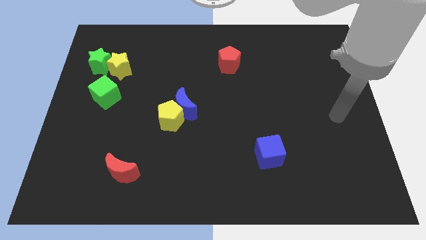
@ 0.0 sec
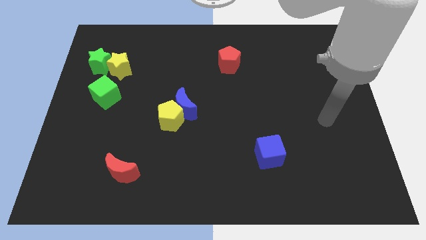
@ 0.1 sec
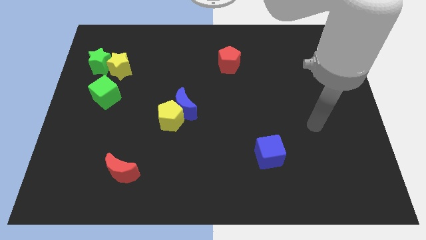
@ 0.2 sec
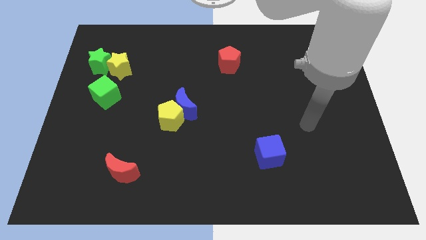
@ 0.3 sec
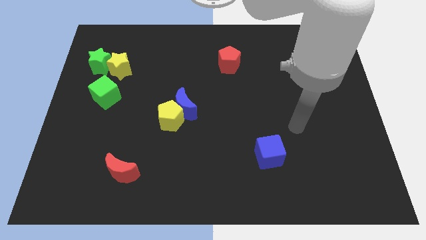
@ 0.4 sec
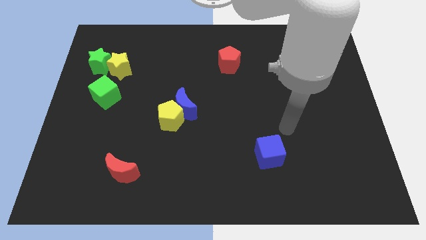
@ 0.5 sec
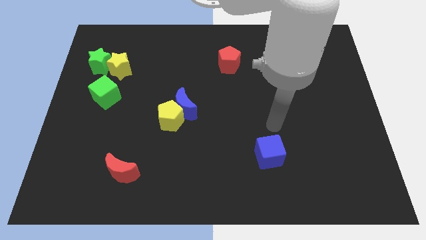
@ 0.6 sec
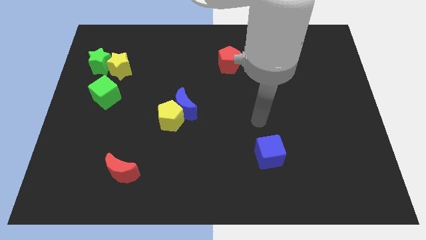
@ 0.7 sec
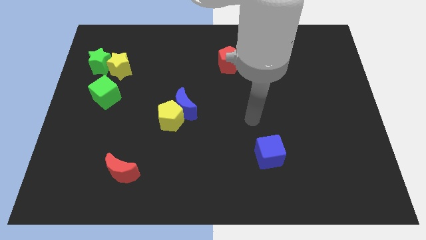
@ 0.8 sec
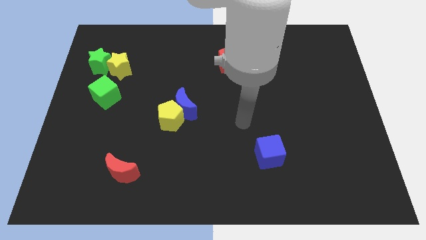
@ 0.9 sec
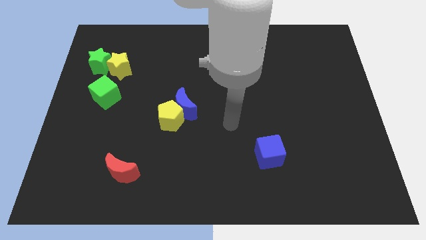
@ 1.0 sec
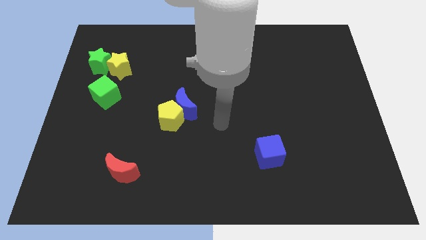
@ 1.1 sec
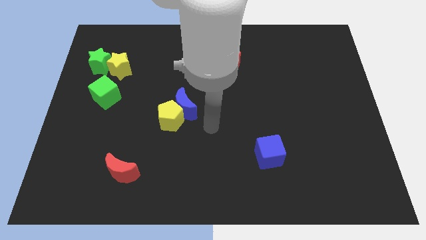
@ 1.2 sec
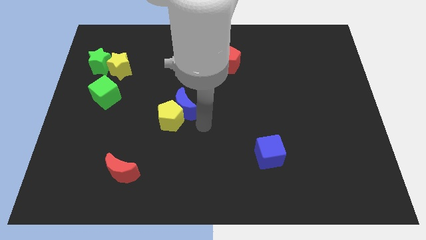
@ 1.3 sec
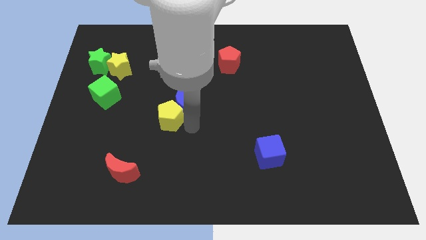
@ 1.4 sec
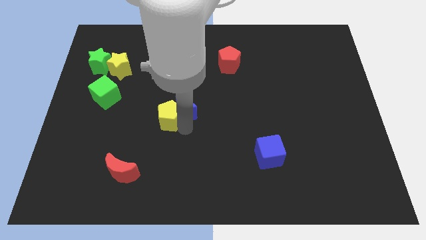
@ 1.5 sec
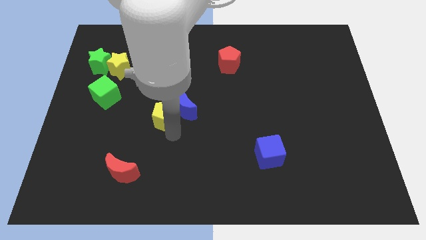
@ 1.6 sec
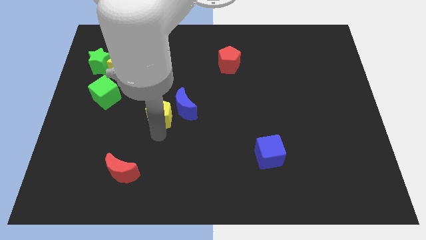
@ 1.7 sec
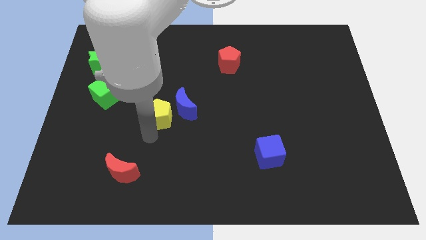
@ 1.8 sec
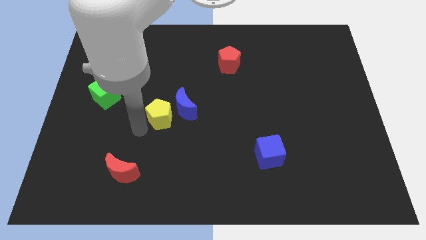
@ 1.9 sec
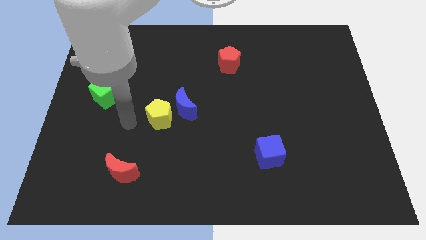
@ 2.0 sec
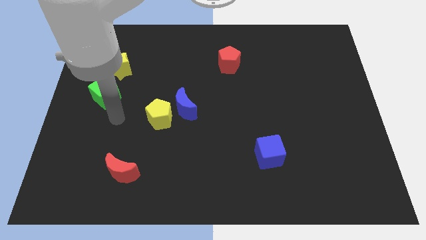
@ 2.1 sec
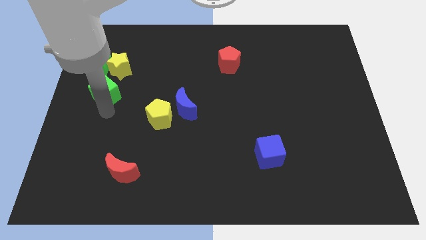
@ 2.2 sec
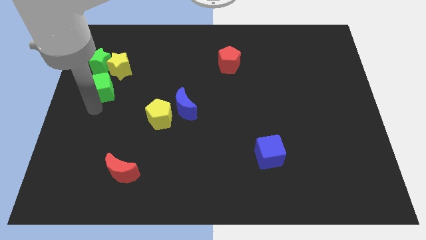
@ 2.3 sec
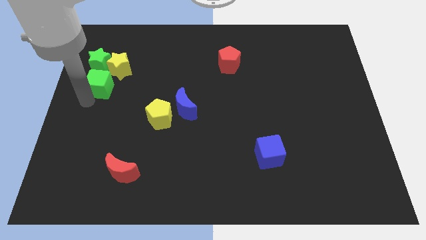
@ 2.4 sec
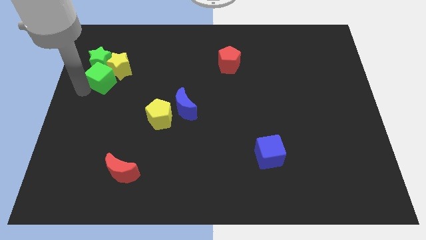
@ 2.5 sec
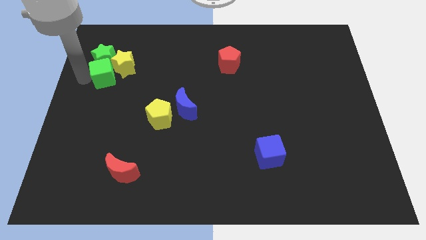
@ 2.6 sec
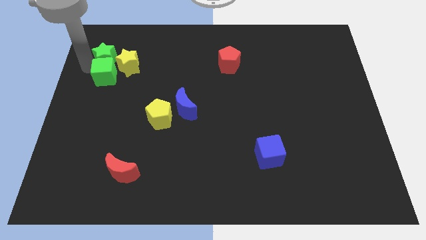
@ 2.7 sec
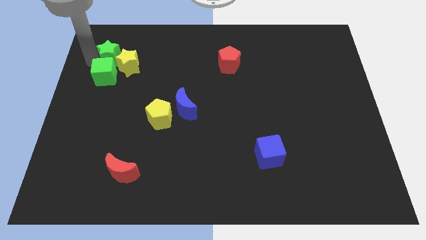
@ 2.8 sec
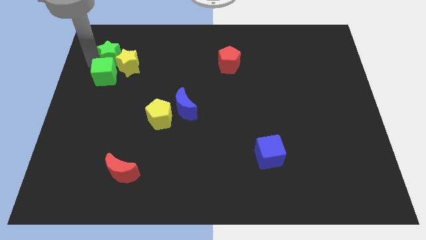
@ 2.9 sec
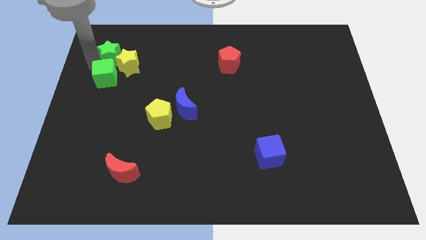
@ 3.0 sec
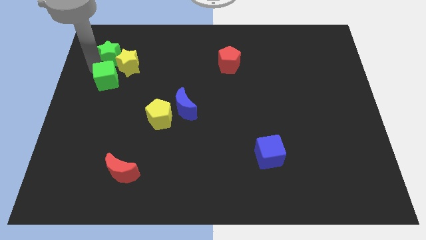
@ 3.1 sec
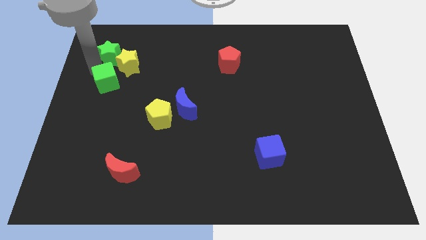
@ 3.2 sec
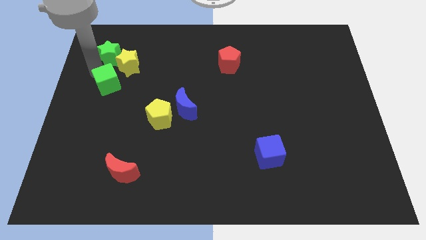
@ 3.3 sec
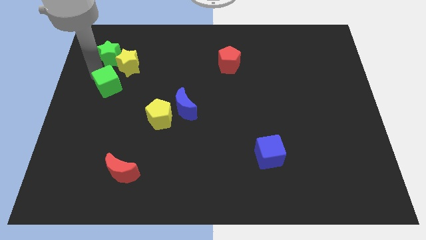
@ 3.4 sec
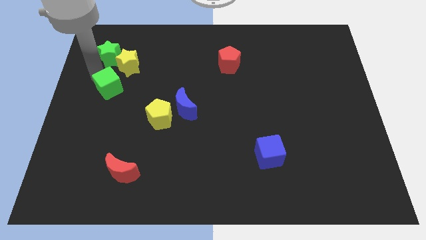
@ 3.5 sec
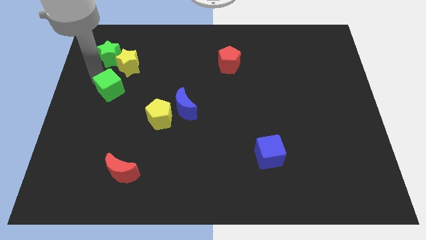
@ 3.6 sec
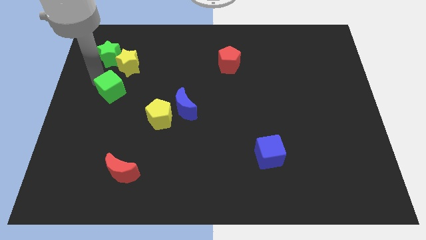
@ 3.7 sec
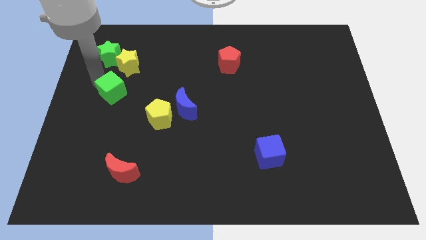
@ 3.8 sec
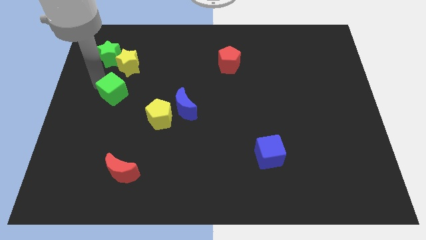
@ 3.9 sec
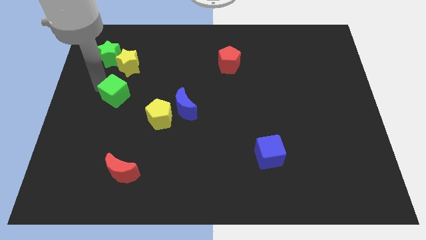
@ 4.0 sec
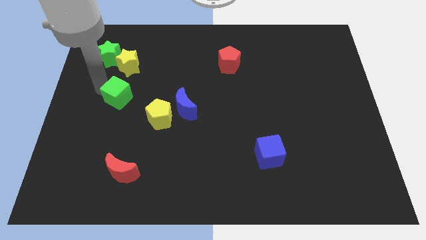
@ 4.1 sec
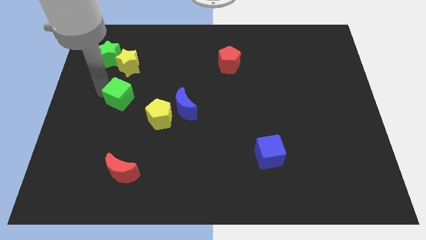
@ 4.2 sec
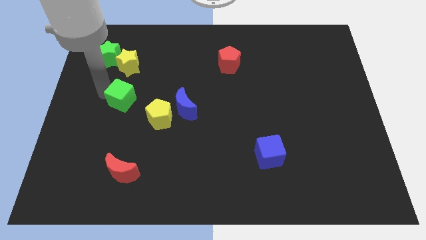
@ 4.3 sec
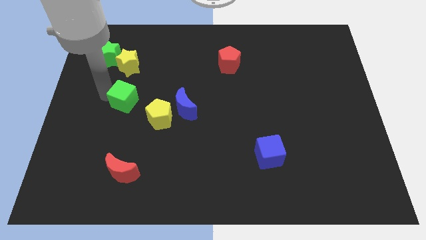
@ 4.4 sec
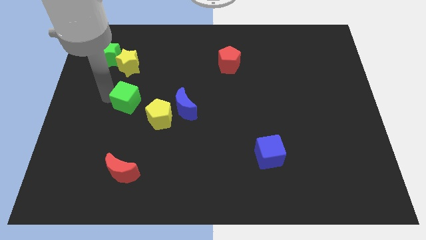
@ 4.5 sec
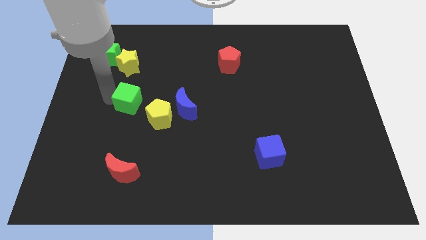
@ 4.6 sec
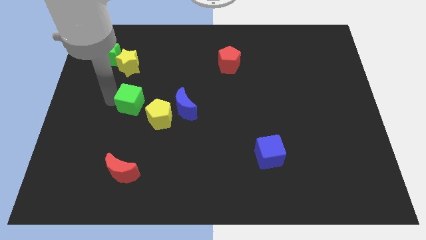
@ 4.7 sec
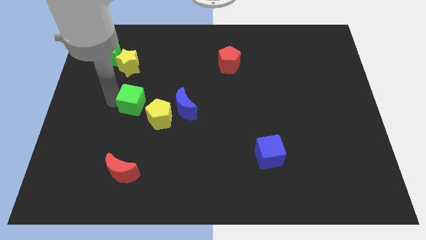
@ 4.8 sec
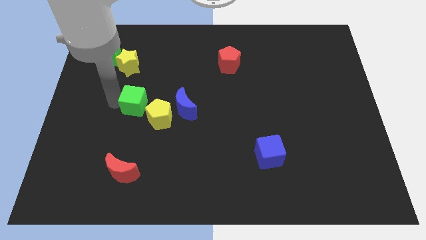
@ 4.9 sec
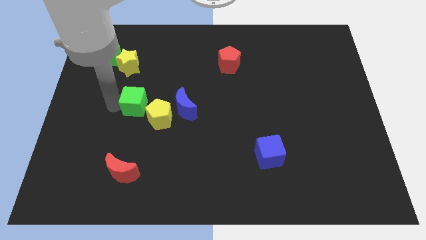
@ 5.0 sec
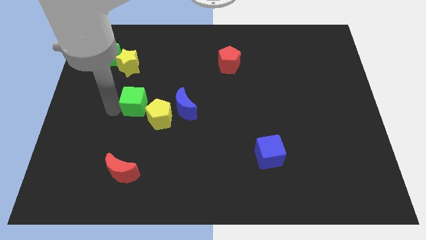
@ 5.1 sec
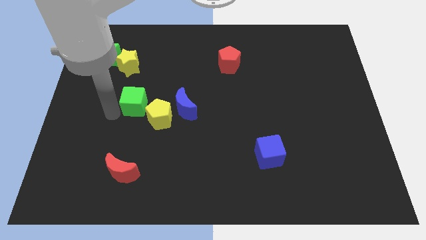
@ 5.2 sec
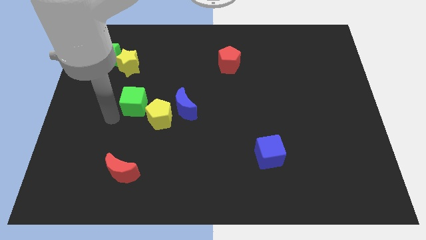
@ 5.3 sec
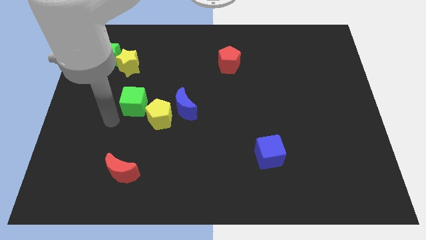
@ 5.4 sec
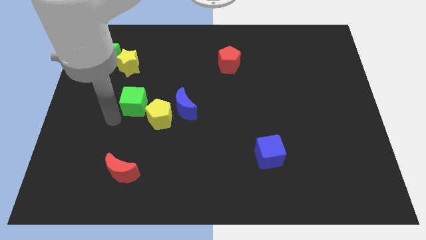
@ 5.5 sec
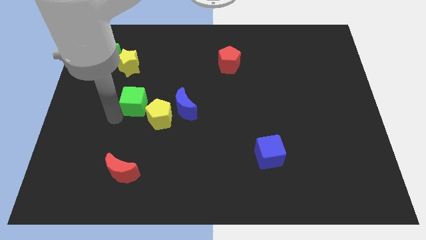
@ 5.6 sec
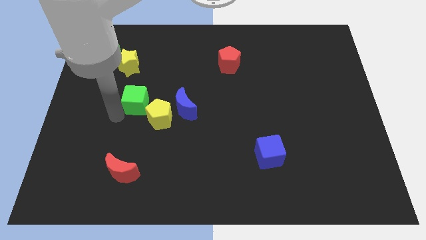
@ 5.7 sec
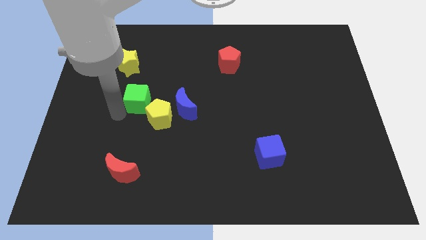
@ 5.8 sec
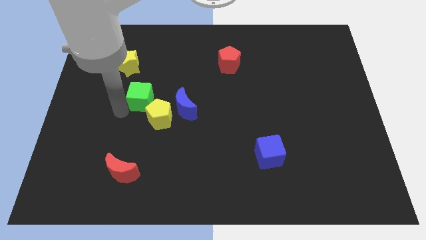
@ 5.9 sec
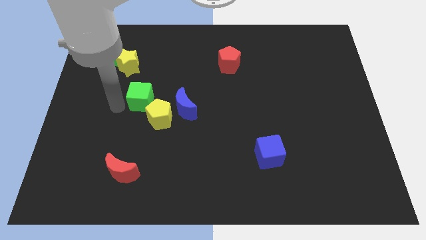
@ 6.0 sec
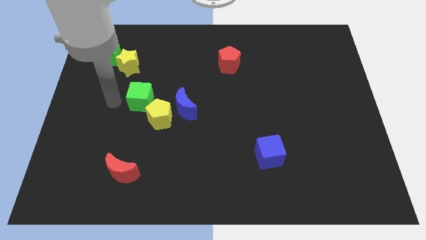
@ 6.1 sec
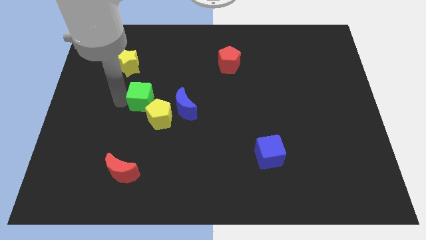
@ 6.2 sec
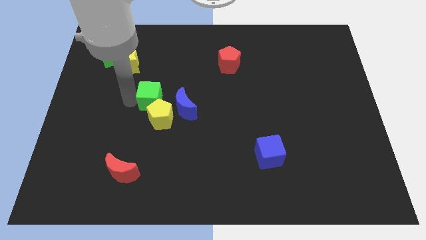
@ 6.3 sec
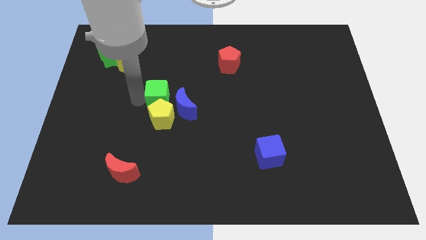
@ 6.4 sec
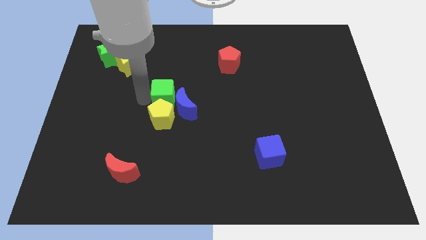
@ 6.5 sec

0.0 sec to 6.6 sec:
move the green cube close to the blue moon
